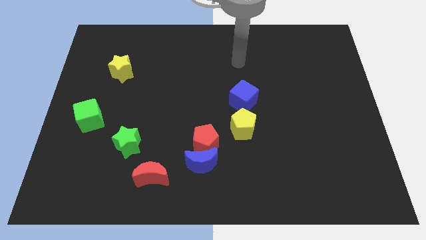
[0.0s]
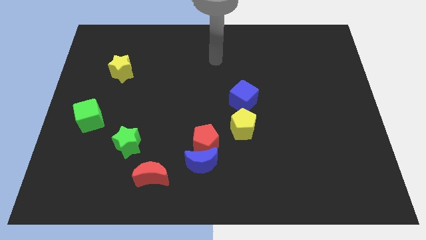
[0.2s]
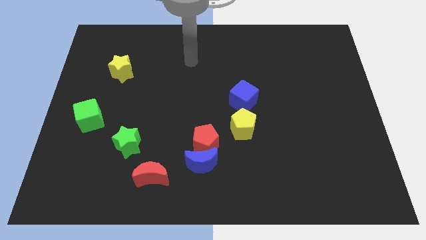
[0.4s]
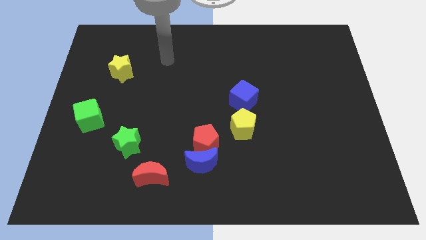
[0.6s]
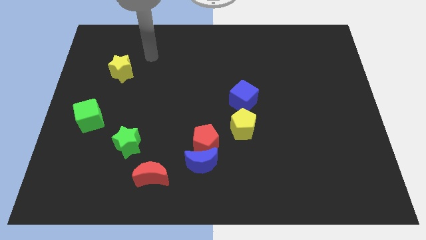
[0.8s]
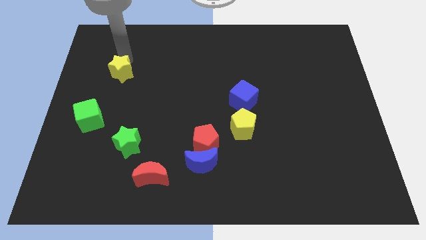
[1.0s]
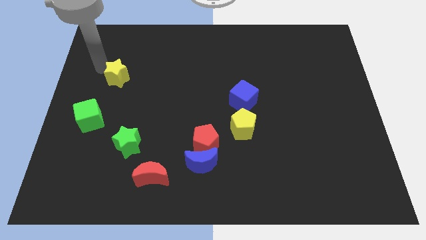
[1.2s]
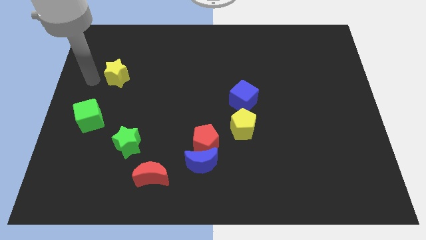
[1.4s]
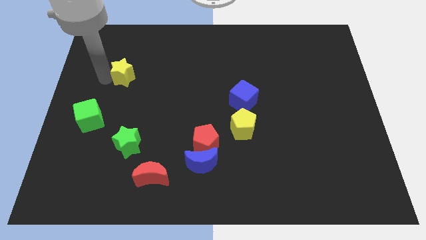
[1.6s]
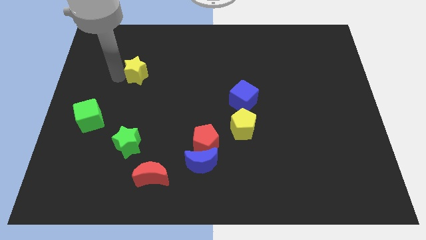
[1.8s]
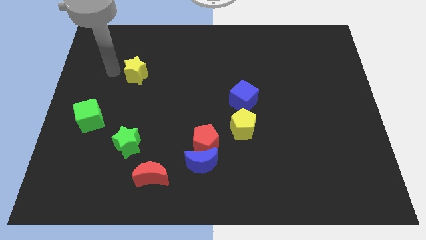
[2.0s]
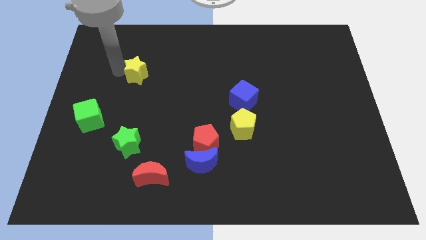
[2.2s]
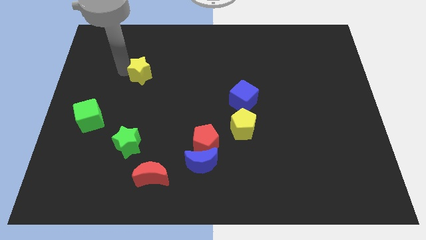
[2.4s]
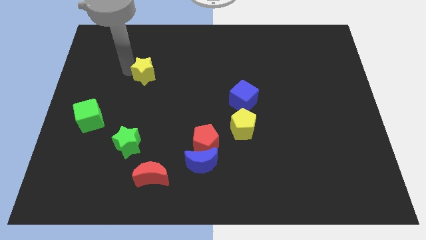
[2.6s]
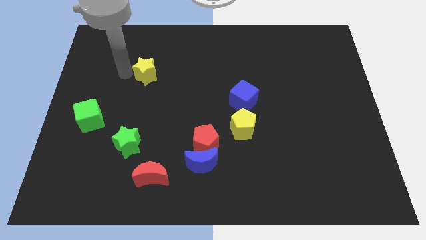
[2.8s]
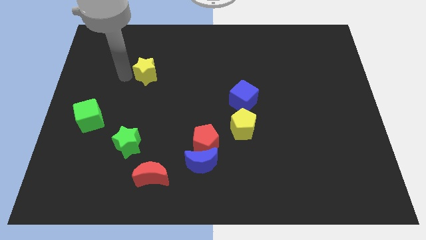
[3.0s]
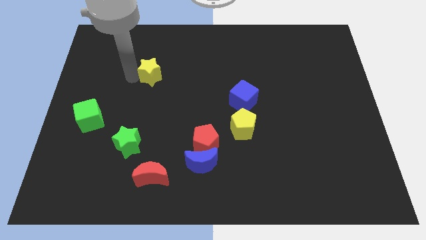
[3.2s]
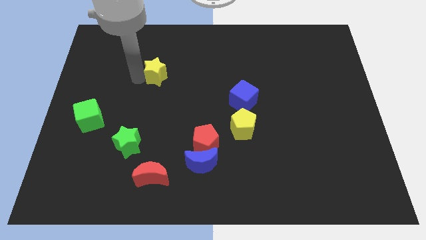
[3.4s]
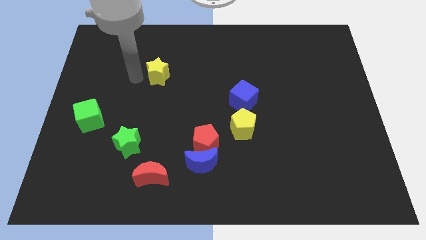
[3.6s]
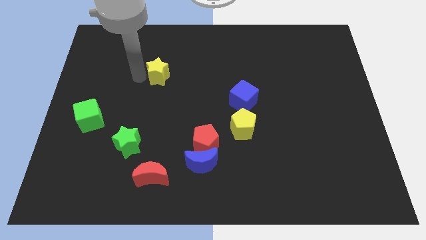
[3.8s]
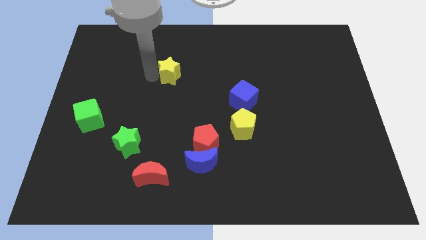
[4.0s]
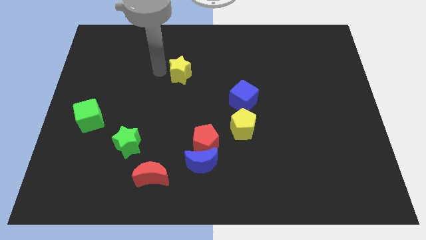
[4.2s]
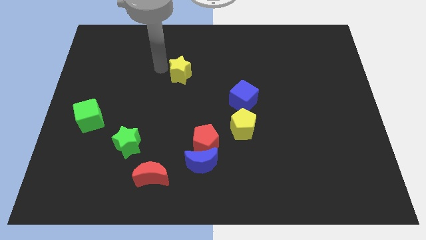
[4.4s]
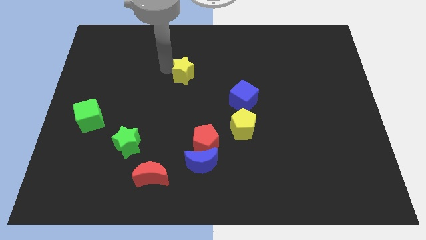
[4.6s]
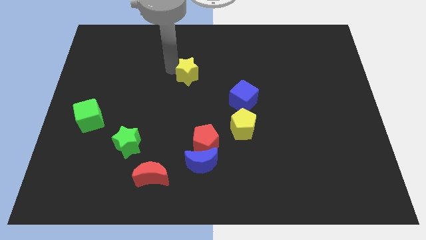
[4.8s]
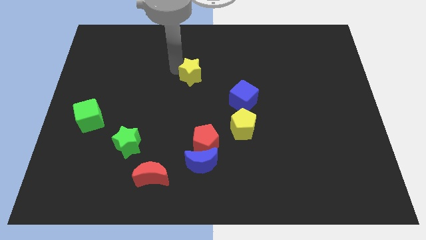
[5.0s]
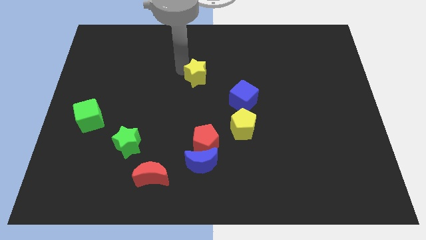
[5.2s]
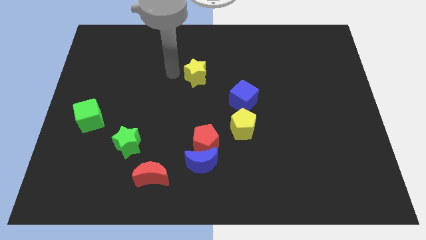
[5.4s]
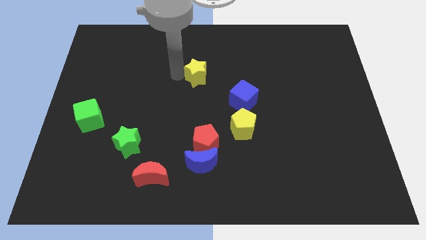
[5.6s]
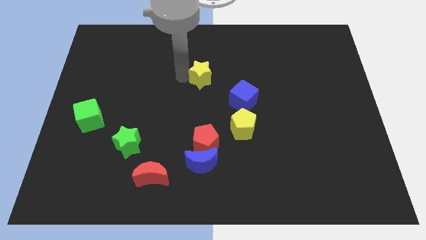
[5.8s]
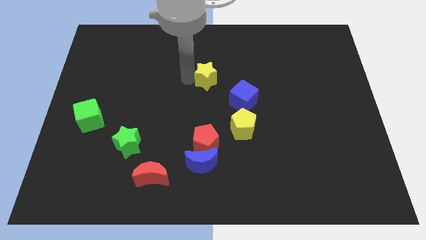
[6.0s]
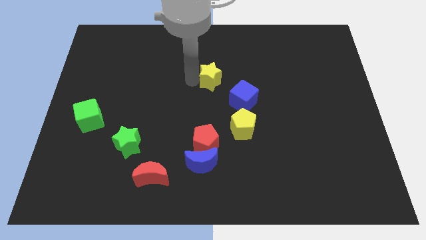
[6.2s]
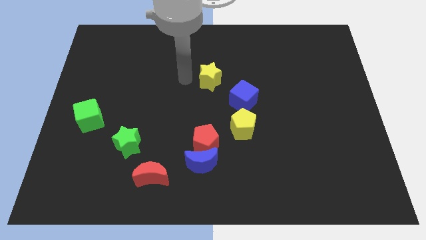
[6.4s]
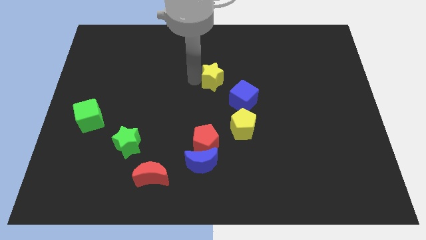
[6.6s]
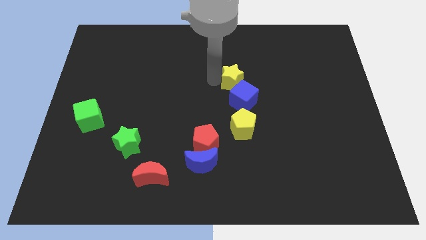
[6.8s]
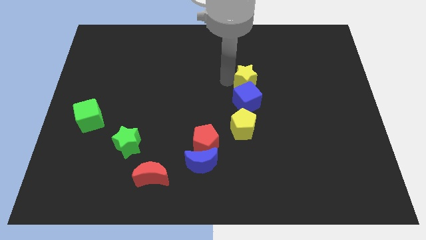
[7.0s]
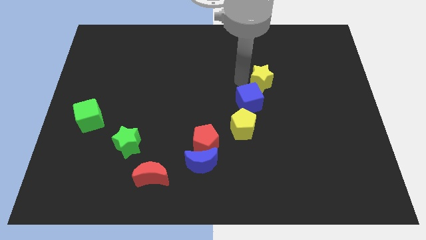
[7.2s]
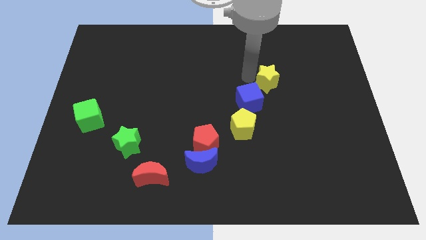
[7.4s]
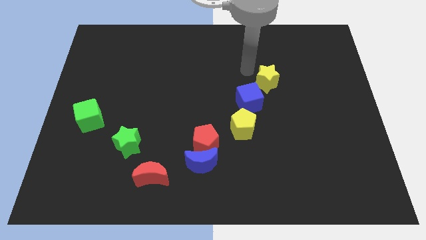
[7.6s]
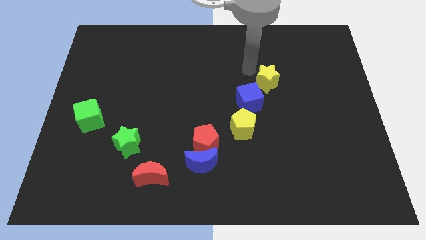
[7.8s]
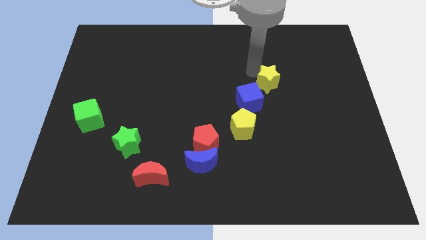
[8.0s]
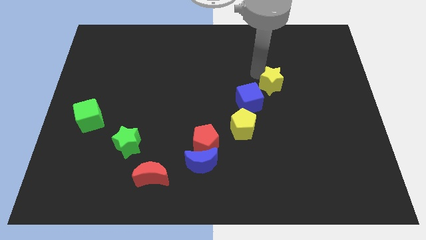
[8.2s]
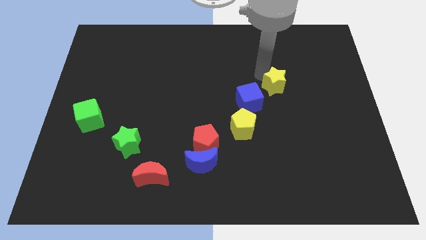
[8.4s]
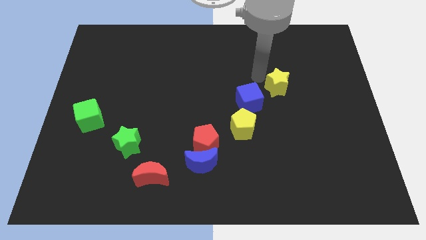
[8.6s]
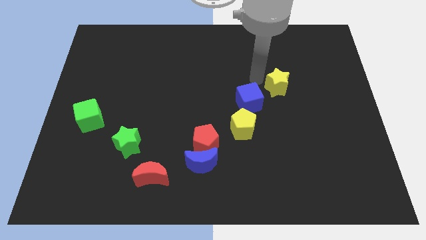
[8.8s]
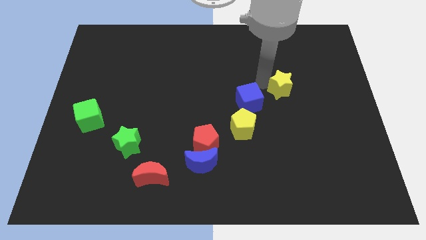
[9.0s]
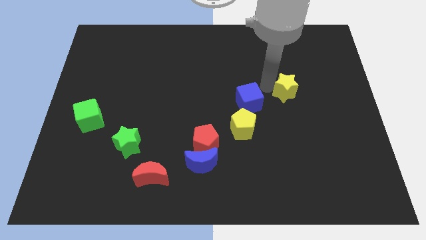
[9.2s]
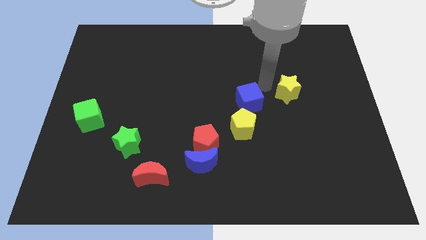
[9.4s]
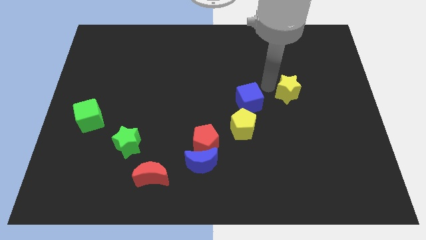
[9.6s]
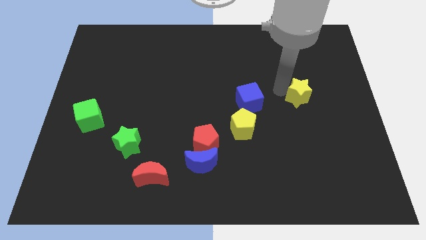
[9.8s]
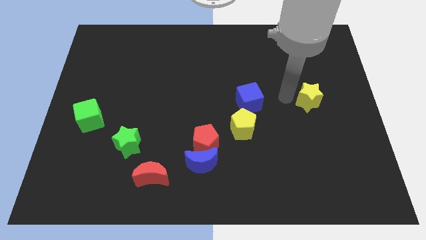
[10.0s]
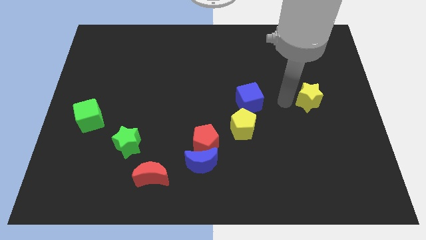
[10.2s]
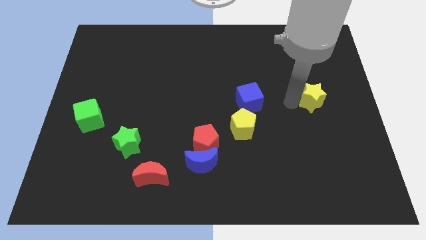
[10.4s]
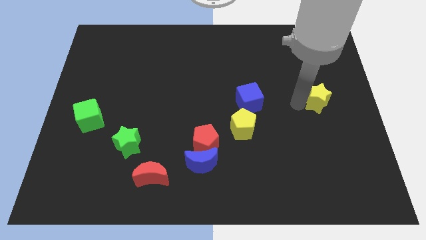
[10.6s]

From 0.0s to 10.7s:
slide the yellow star to the right side
